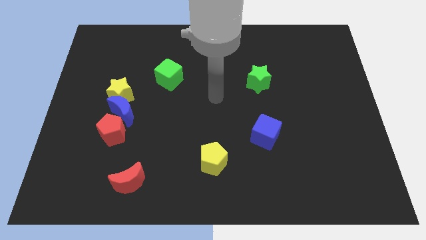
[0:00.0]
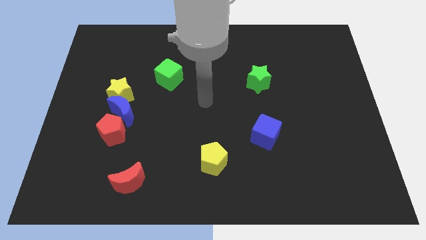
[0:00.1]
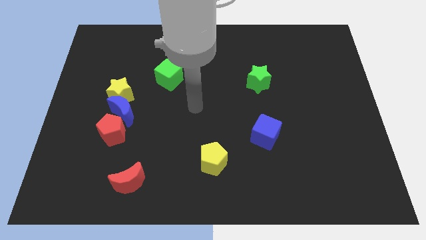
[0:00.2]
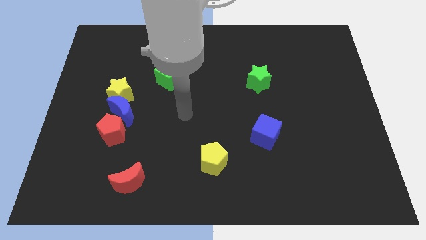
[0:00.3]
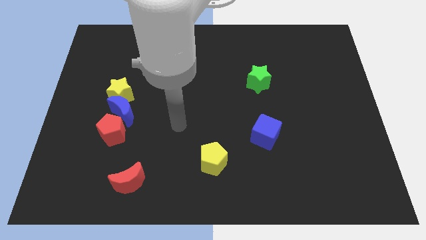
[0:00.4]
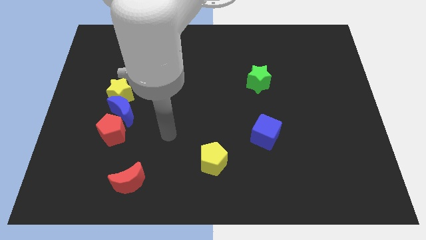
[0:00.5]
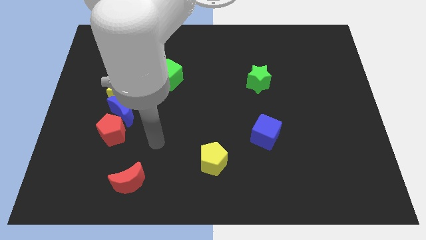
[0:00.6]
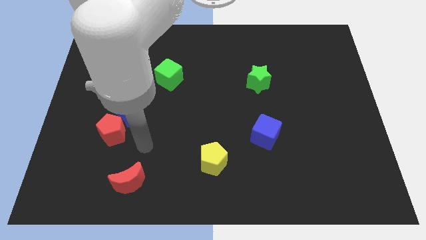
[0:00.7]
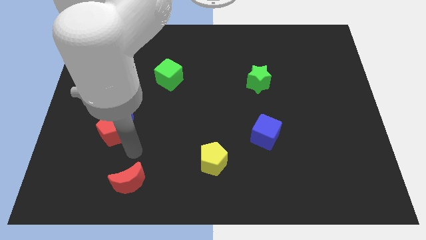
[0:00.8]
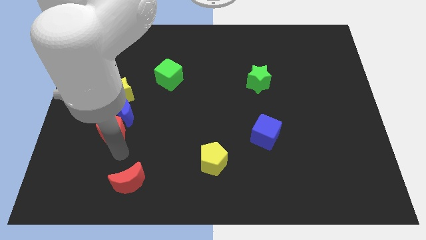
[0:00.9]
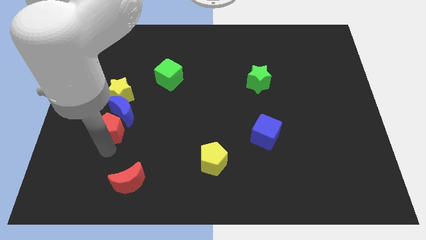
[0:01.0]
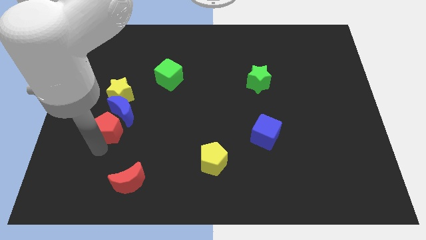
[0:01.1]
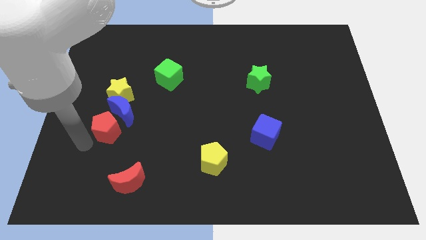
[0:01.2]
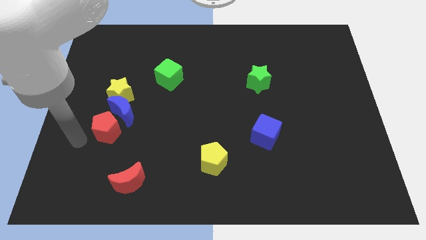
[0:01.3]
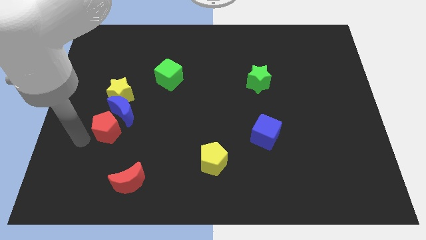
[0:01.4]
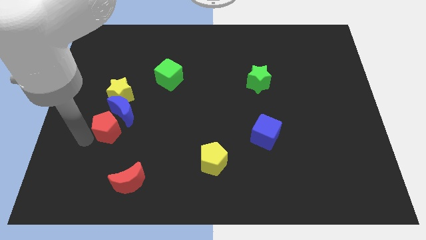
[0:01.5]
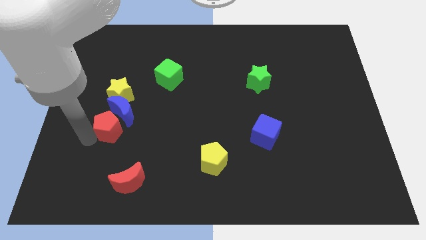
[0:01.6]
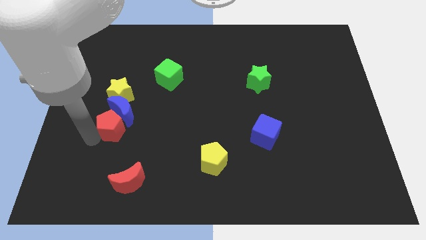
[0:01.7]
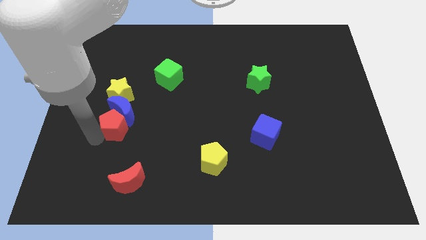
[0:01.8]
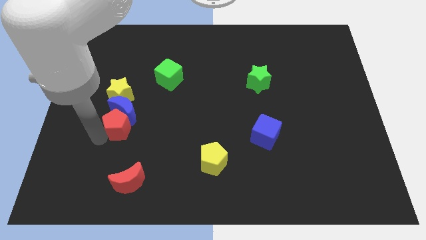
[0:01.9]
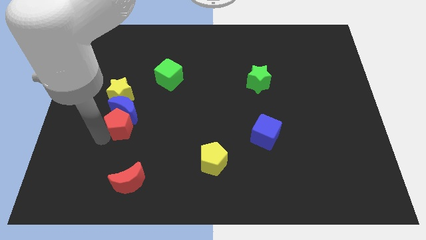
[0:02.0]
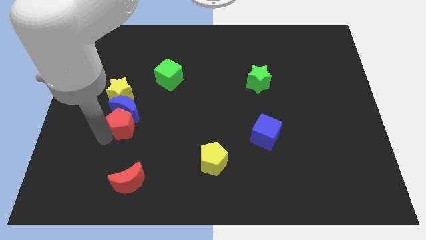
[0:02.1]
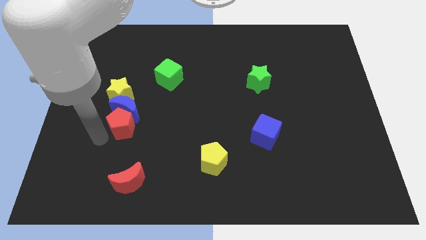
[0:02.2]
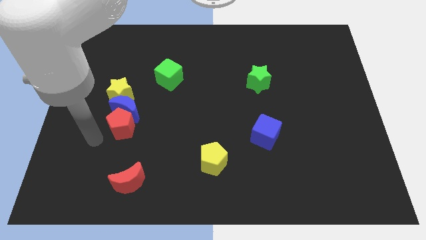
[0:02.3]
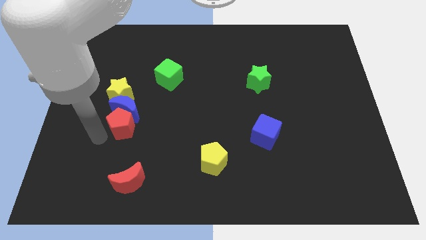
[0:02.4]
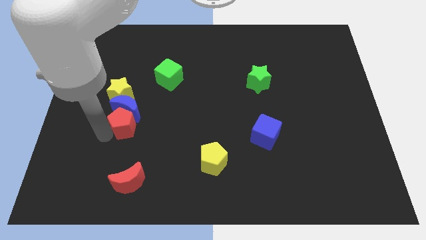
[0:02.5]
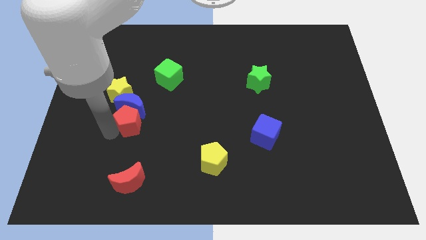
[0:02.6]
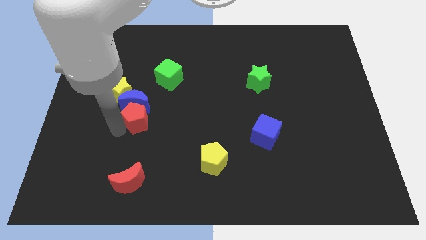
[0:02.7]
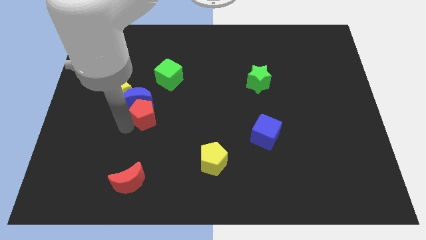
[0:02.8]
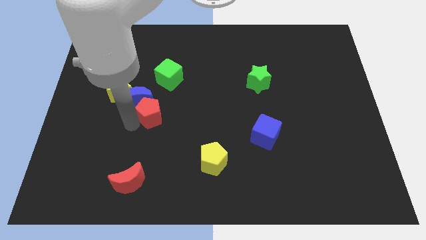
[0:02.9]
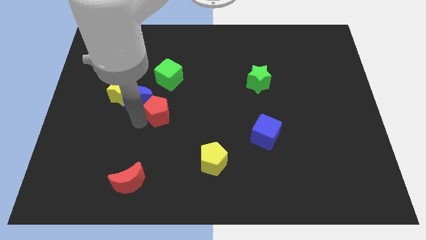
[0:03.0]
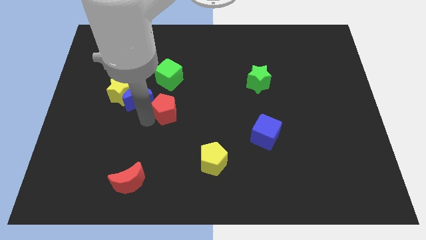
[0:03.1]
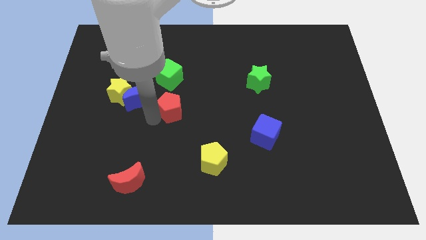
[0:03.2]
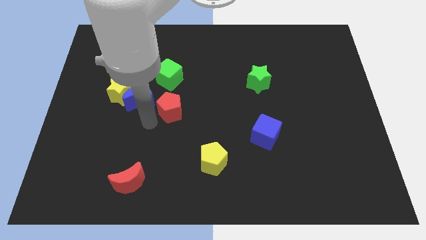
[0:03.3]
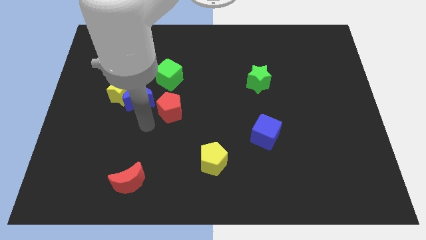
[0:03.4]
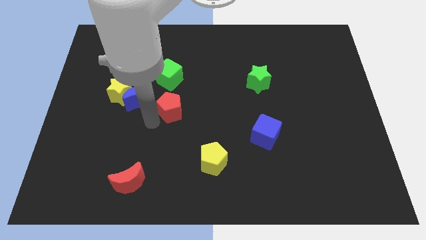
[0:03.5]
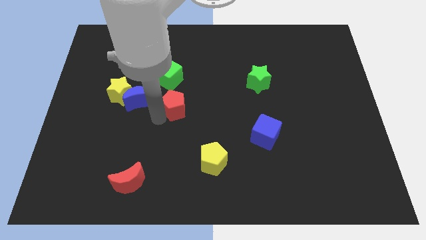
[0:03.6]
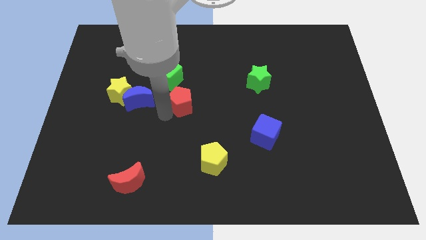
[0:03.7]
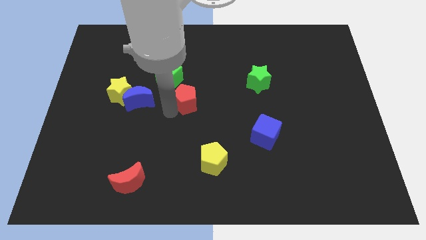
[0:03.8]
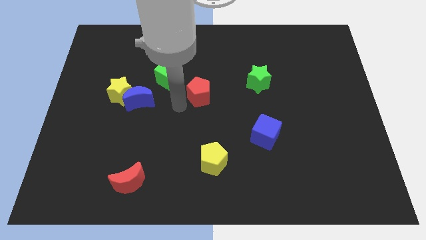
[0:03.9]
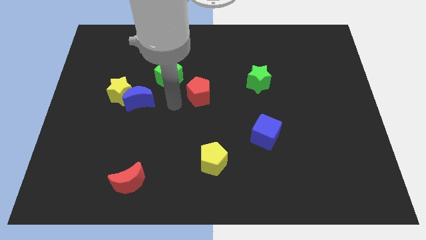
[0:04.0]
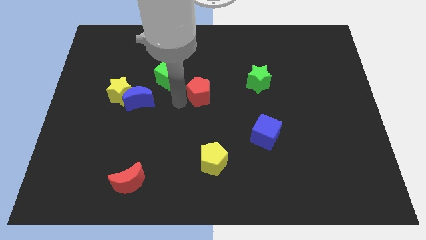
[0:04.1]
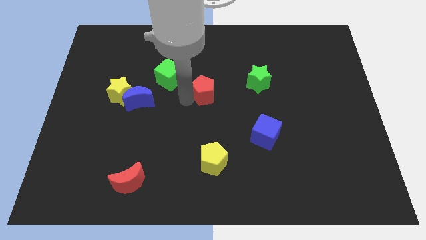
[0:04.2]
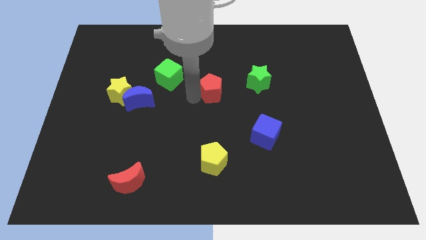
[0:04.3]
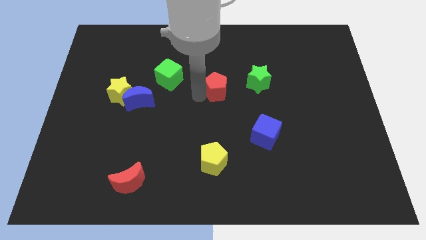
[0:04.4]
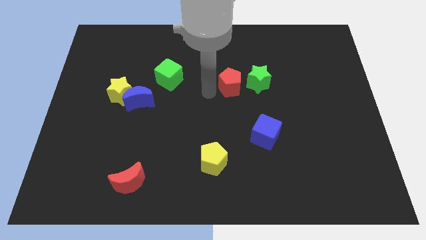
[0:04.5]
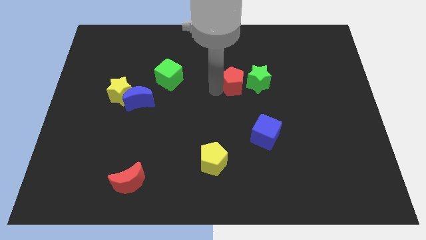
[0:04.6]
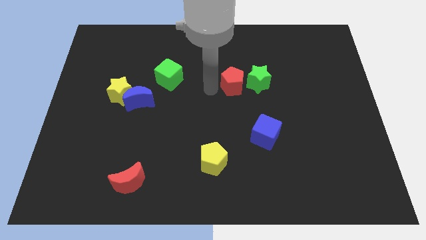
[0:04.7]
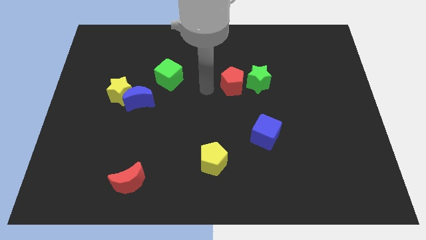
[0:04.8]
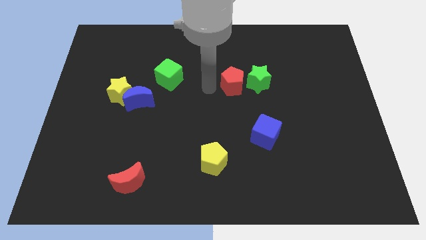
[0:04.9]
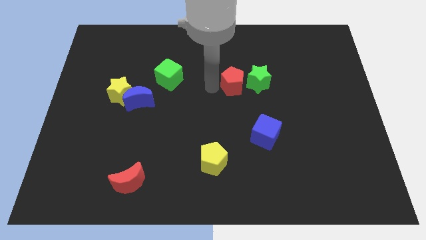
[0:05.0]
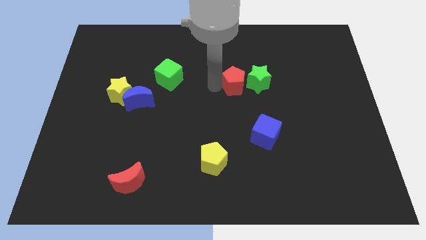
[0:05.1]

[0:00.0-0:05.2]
put the red pentagon to the green star

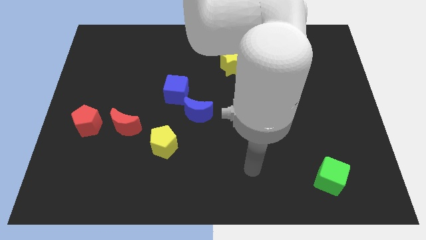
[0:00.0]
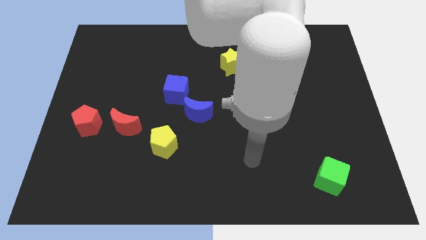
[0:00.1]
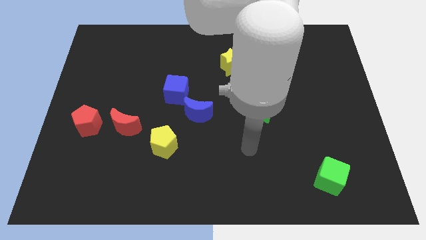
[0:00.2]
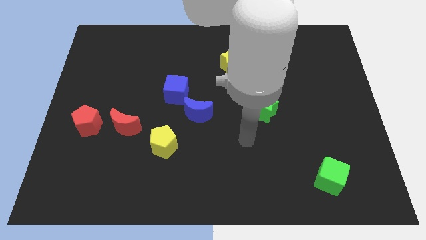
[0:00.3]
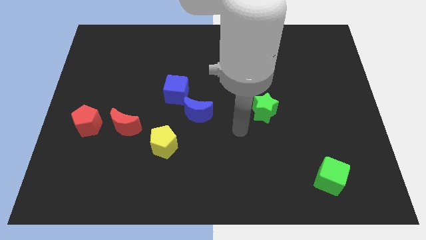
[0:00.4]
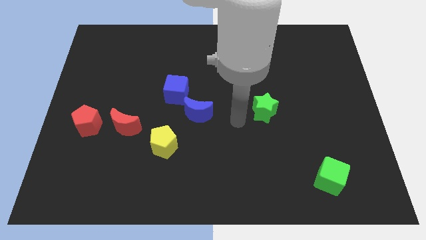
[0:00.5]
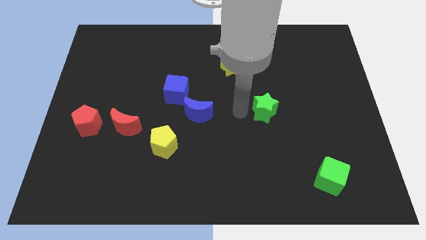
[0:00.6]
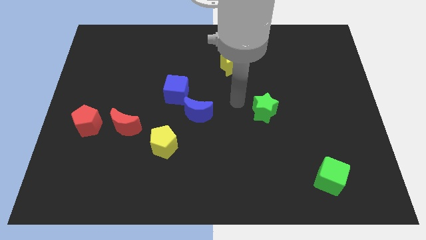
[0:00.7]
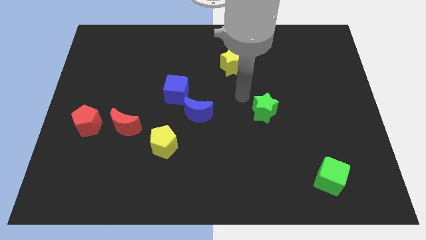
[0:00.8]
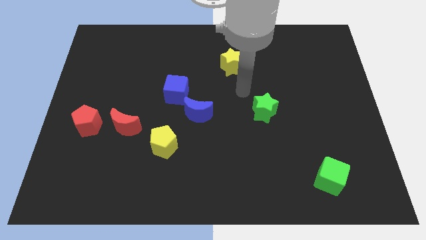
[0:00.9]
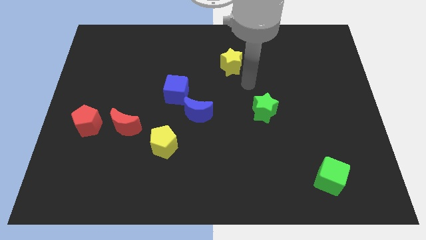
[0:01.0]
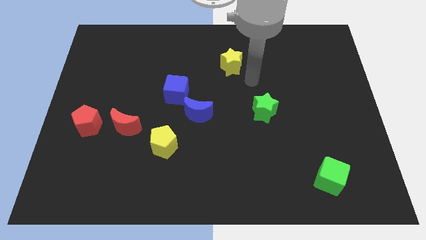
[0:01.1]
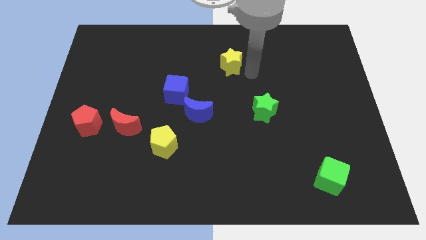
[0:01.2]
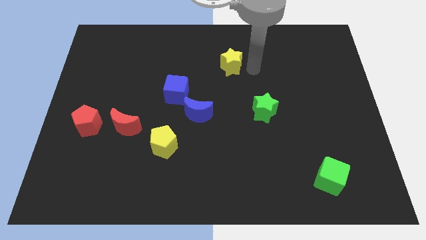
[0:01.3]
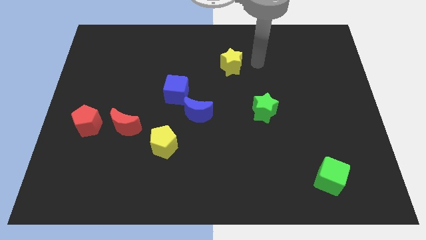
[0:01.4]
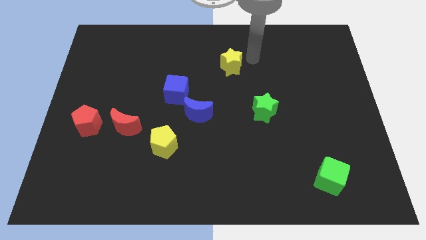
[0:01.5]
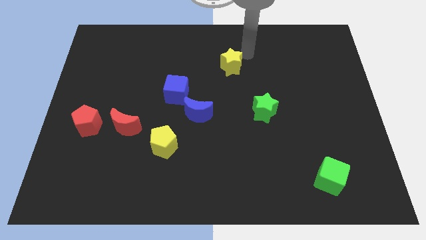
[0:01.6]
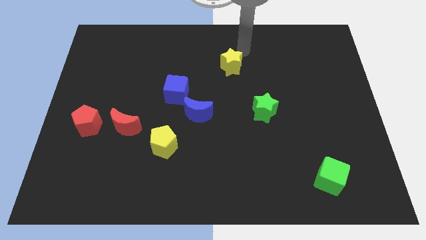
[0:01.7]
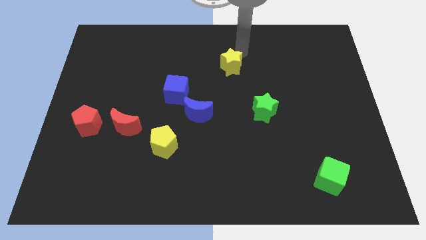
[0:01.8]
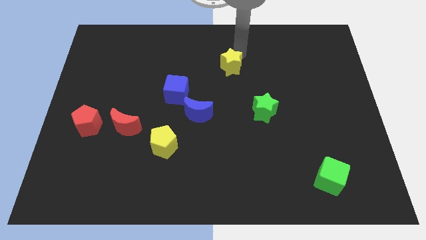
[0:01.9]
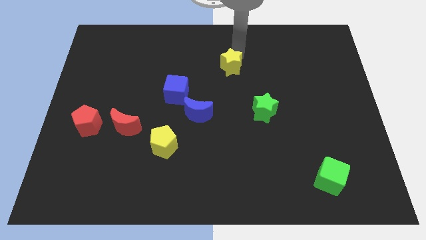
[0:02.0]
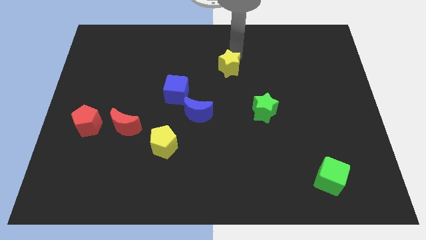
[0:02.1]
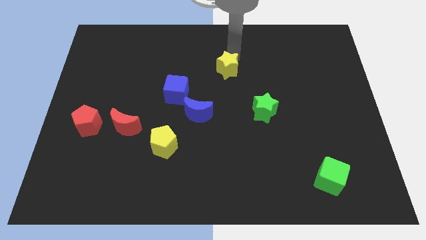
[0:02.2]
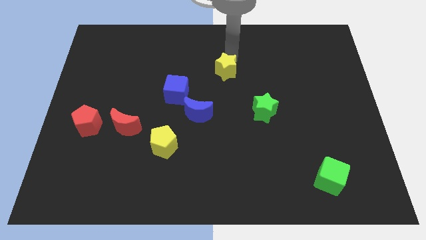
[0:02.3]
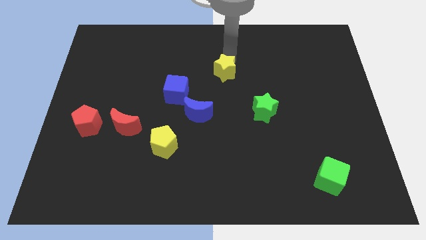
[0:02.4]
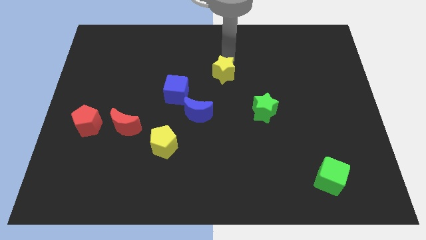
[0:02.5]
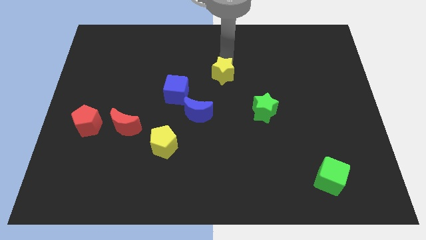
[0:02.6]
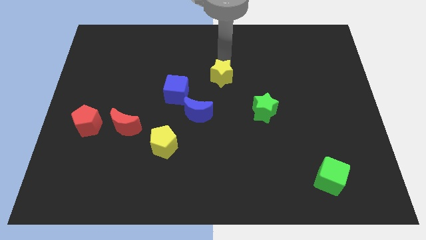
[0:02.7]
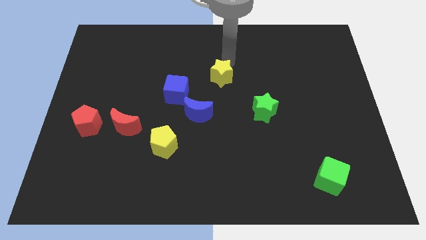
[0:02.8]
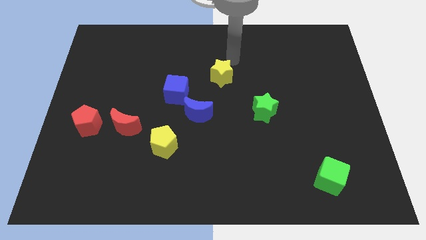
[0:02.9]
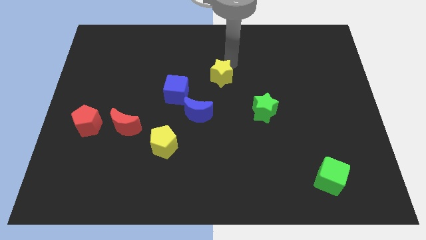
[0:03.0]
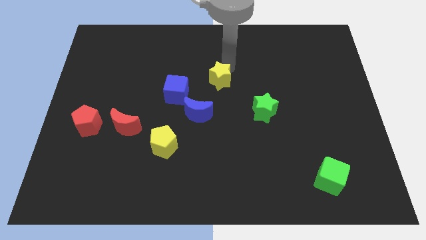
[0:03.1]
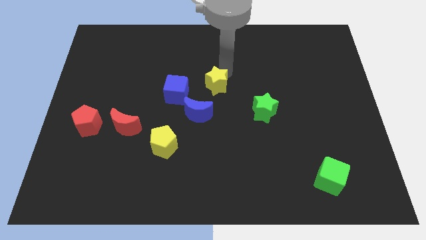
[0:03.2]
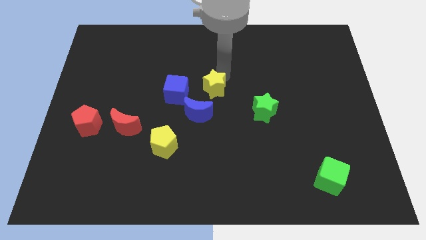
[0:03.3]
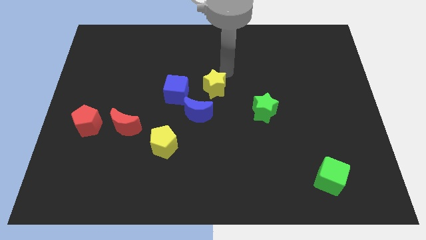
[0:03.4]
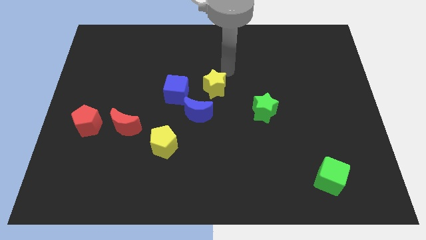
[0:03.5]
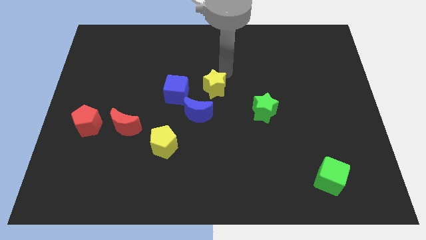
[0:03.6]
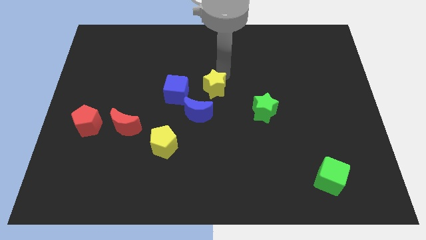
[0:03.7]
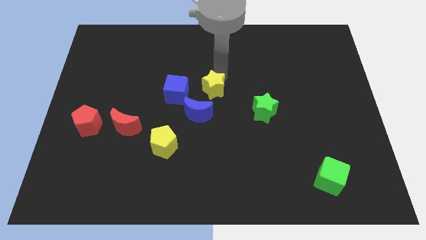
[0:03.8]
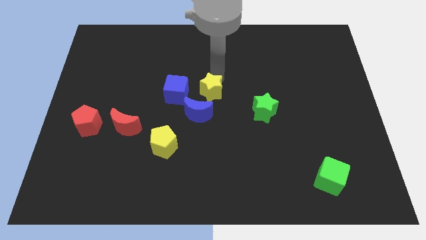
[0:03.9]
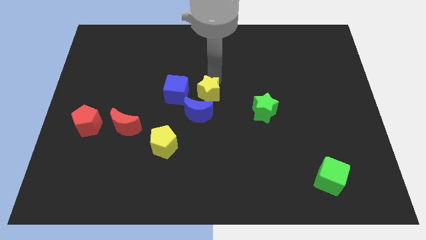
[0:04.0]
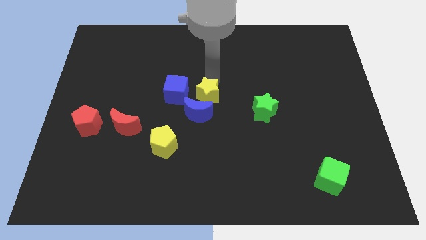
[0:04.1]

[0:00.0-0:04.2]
put the yellow star next to the blue moon
